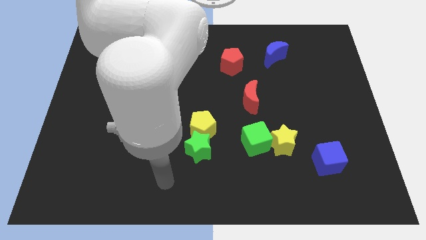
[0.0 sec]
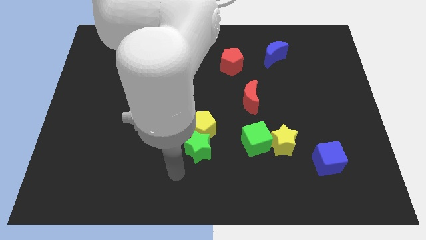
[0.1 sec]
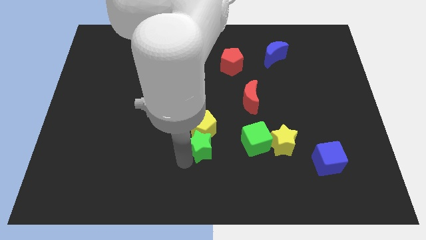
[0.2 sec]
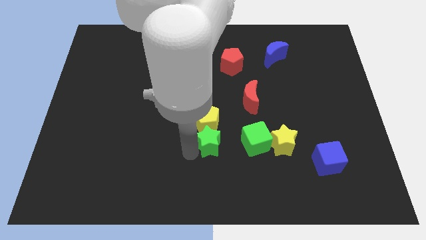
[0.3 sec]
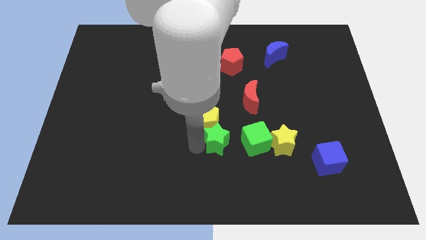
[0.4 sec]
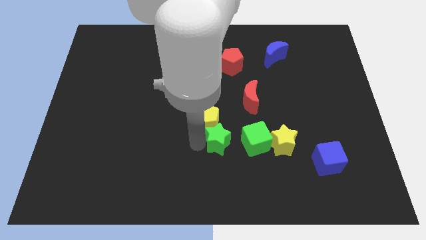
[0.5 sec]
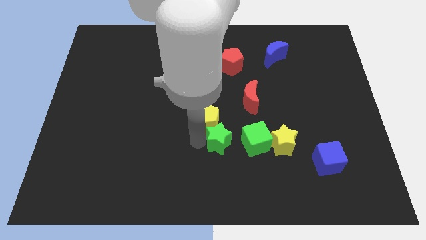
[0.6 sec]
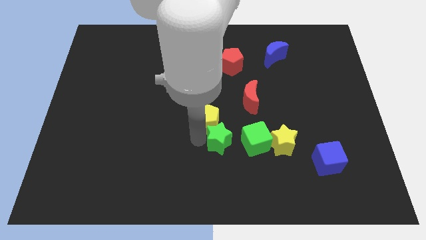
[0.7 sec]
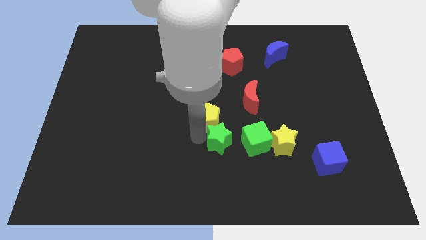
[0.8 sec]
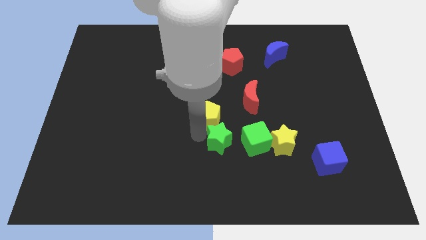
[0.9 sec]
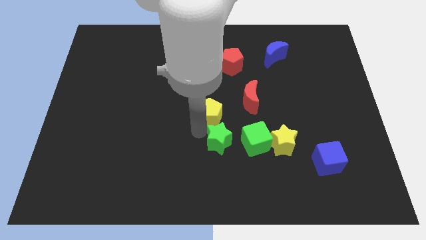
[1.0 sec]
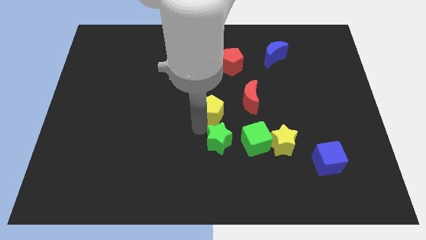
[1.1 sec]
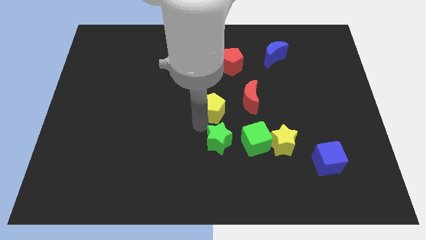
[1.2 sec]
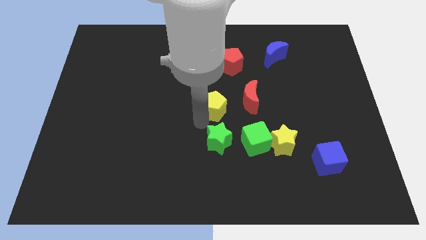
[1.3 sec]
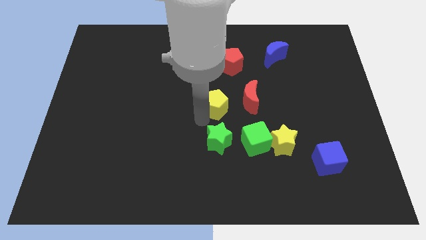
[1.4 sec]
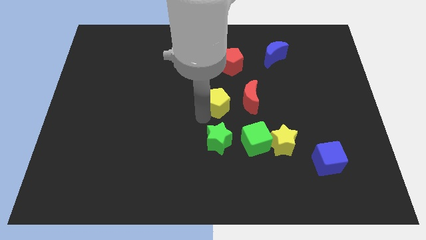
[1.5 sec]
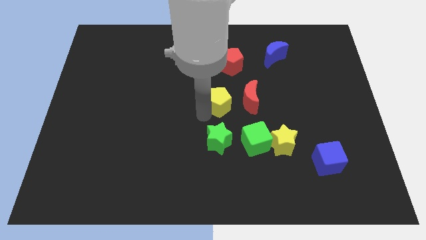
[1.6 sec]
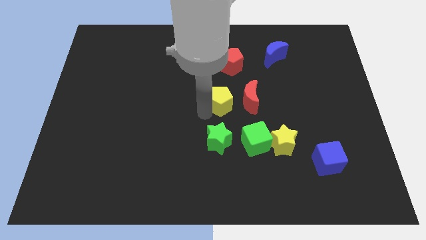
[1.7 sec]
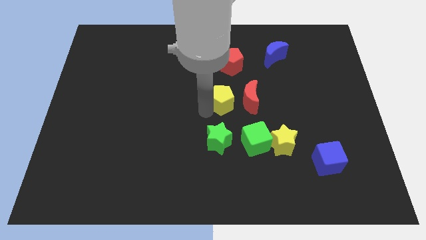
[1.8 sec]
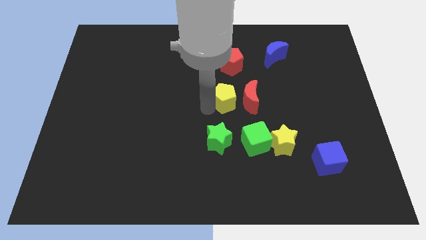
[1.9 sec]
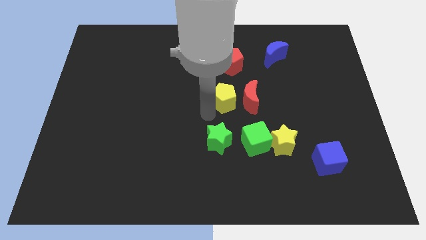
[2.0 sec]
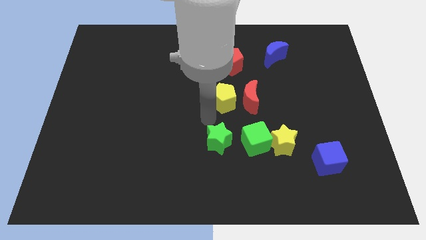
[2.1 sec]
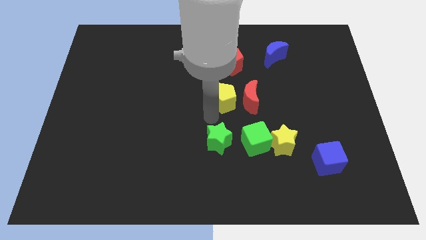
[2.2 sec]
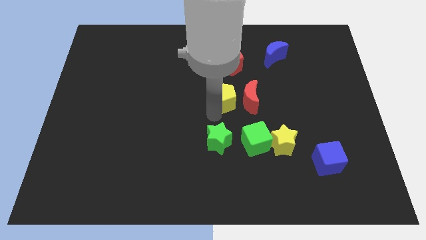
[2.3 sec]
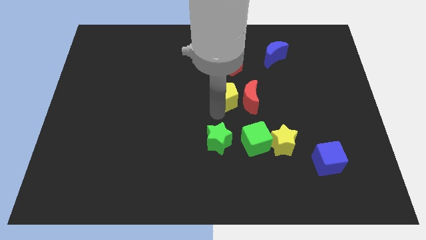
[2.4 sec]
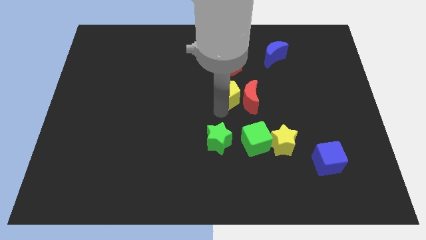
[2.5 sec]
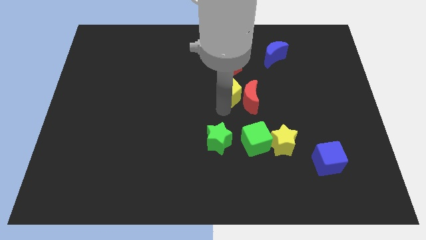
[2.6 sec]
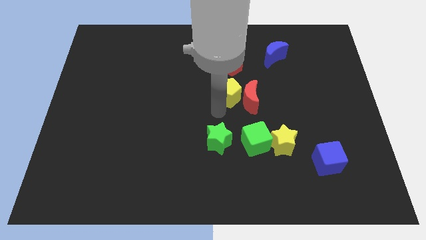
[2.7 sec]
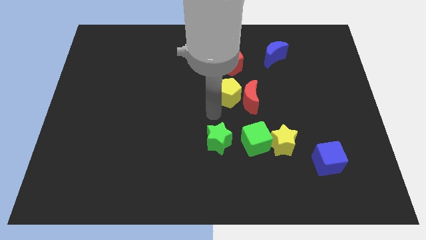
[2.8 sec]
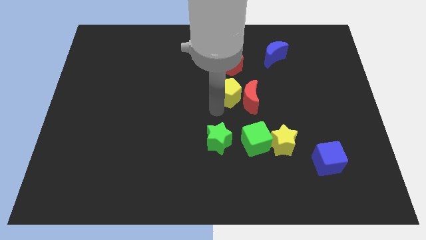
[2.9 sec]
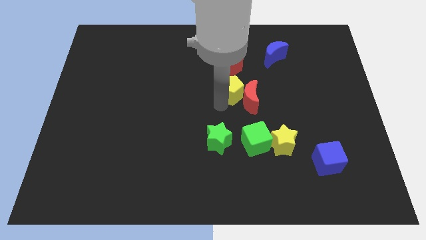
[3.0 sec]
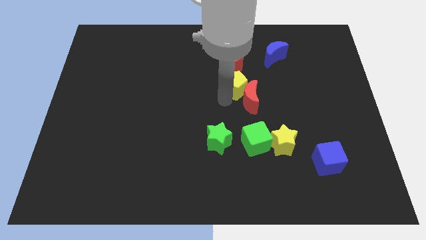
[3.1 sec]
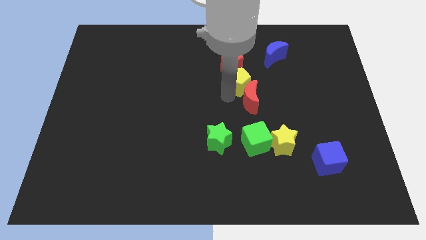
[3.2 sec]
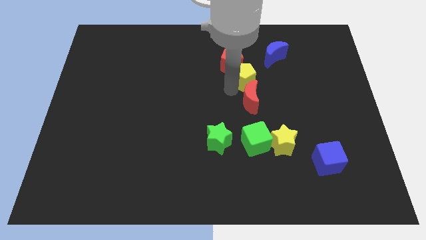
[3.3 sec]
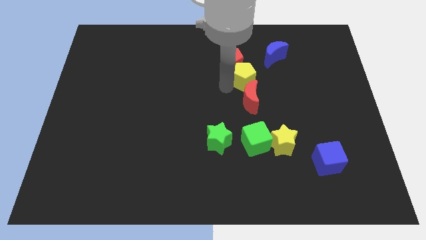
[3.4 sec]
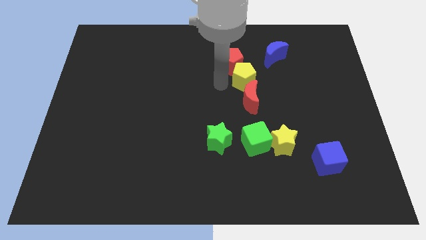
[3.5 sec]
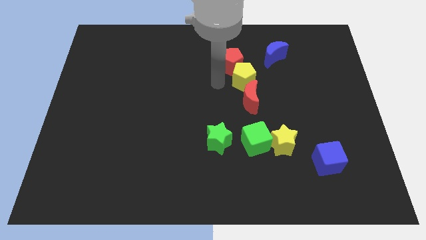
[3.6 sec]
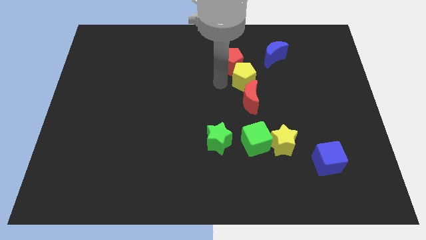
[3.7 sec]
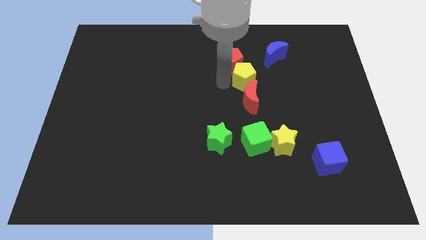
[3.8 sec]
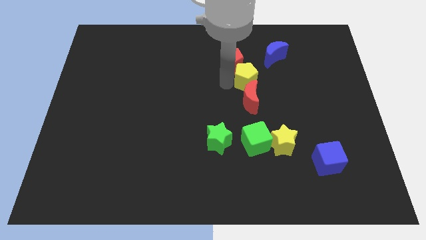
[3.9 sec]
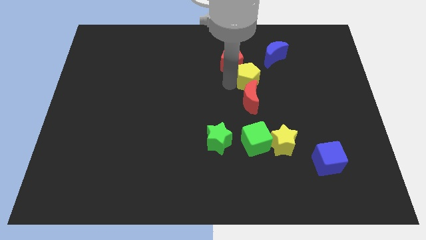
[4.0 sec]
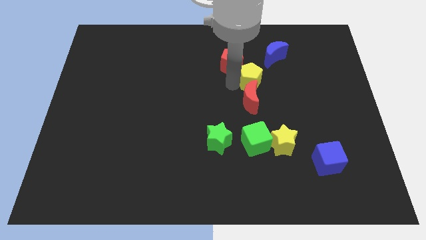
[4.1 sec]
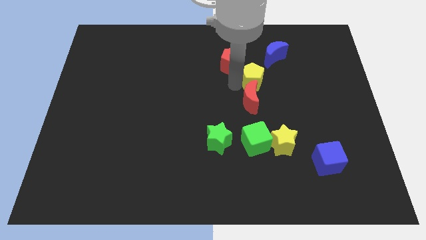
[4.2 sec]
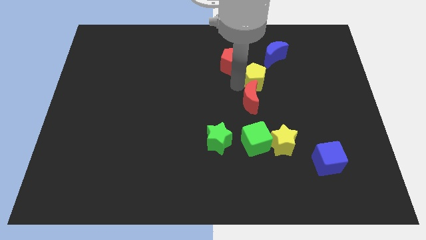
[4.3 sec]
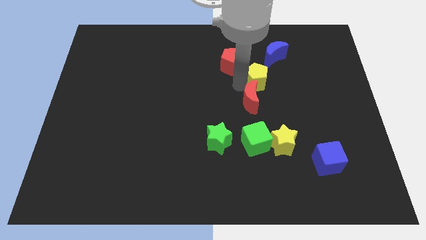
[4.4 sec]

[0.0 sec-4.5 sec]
push the yellow pentagon up and to the right diagonally

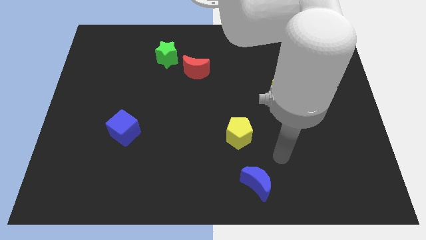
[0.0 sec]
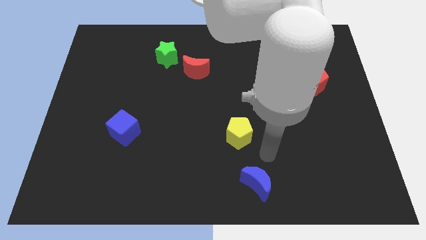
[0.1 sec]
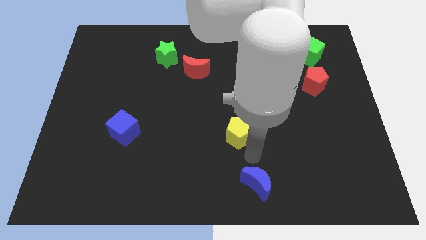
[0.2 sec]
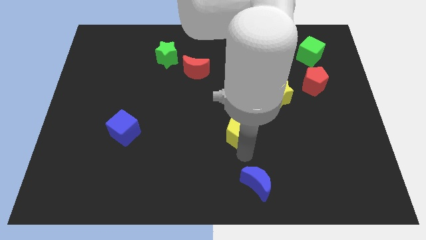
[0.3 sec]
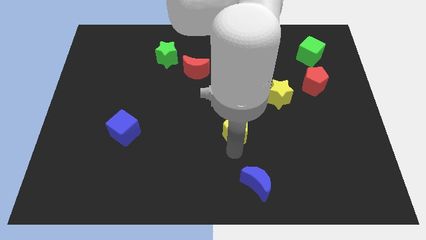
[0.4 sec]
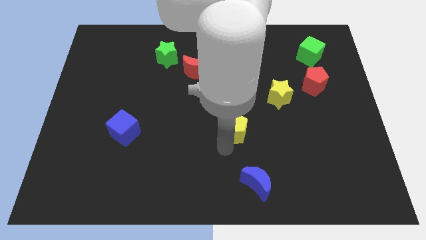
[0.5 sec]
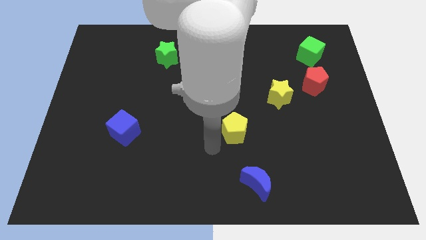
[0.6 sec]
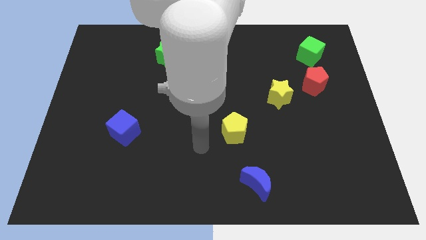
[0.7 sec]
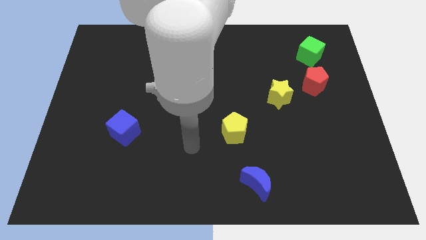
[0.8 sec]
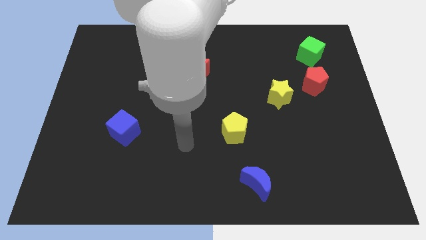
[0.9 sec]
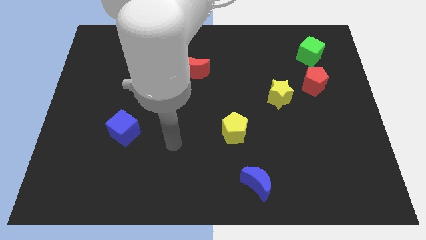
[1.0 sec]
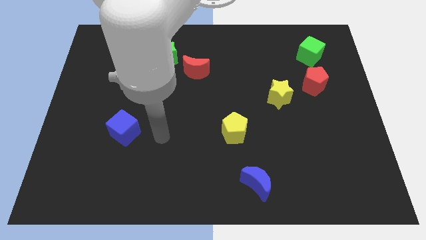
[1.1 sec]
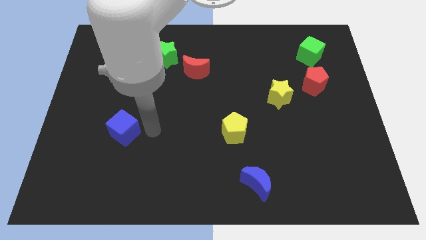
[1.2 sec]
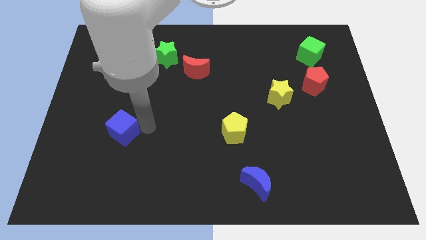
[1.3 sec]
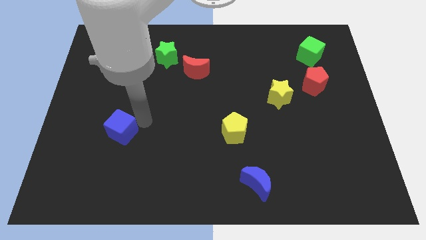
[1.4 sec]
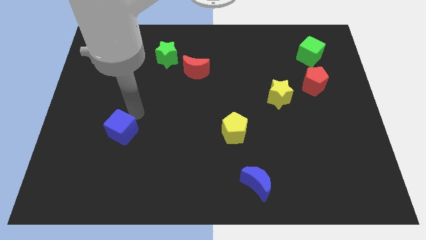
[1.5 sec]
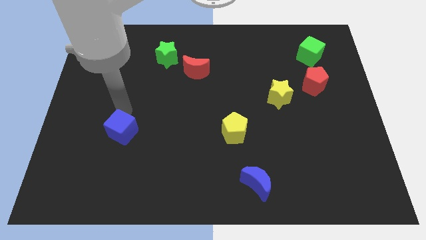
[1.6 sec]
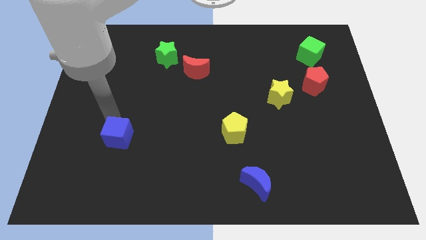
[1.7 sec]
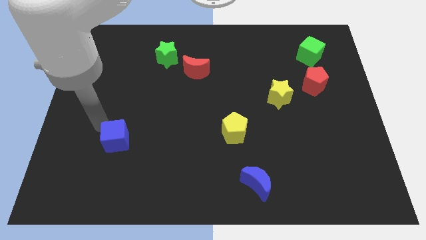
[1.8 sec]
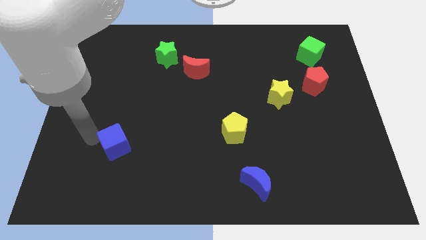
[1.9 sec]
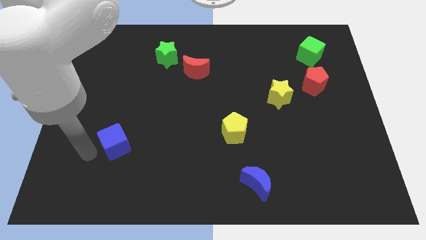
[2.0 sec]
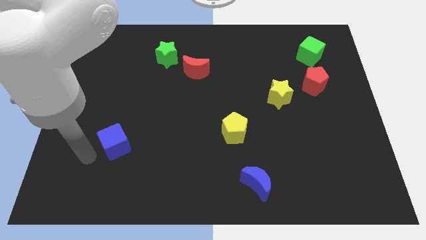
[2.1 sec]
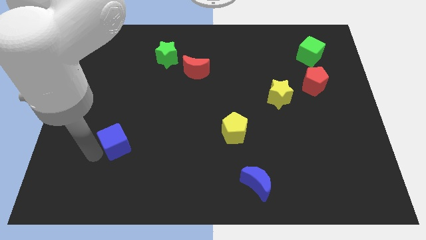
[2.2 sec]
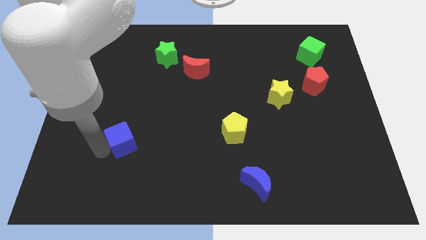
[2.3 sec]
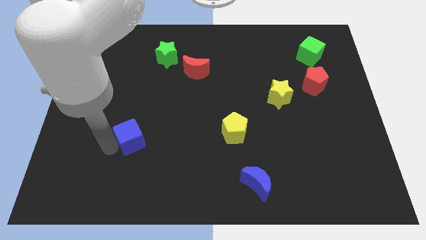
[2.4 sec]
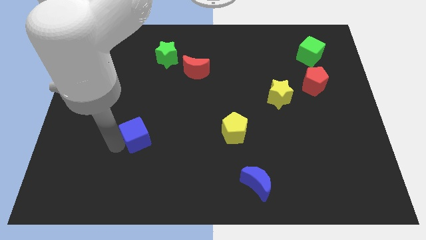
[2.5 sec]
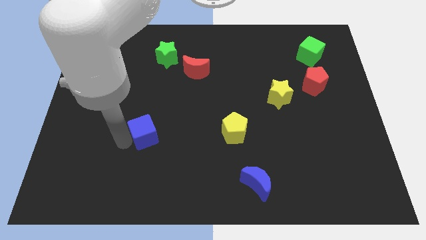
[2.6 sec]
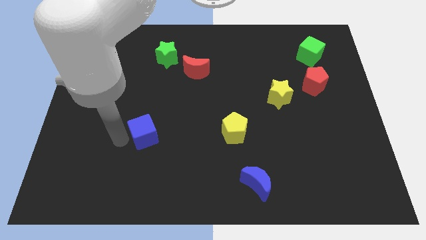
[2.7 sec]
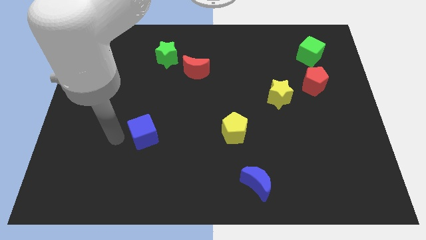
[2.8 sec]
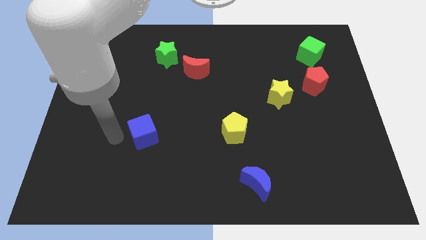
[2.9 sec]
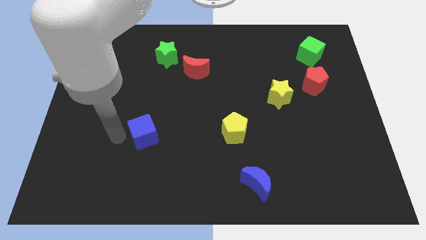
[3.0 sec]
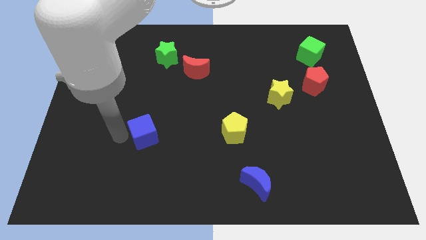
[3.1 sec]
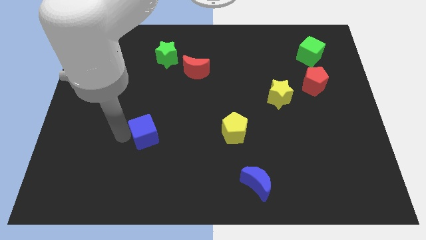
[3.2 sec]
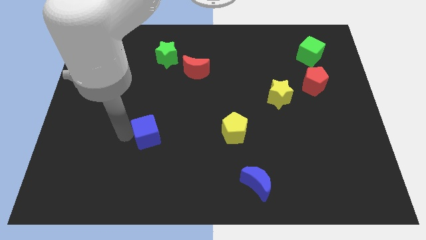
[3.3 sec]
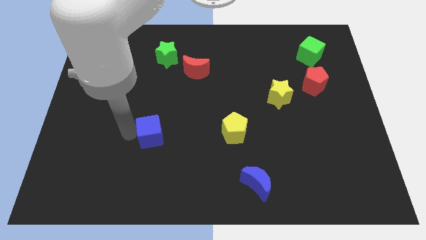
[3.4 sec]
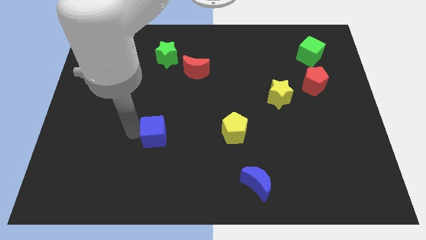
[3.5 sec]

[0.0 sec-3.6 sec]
move the blue cube a little bit right

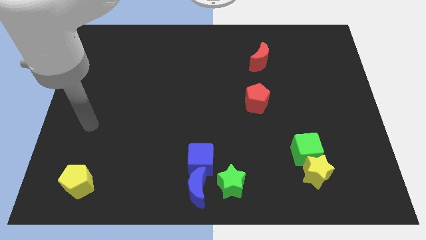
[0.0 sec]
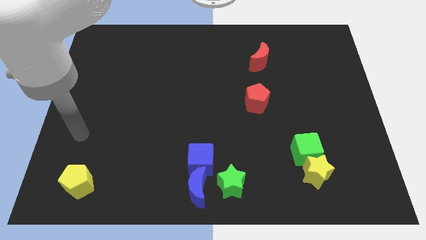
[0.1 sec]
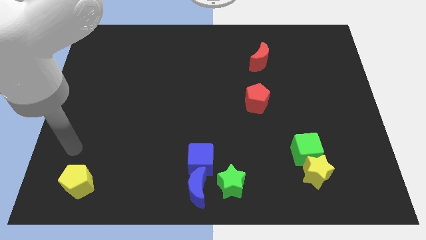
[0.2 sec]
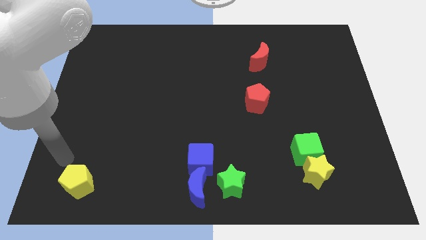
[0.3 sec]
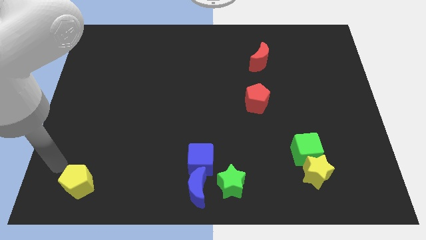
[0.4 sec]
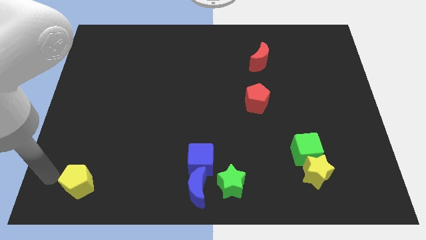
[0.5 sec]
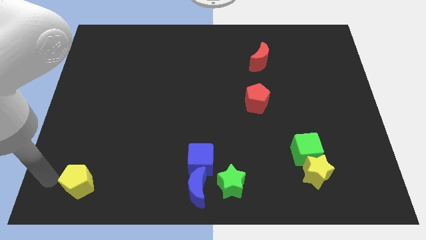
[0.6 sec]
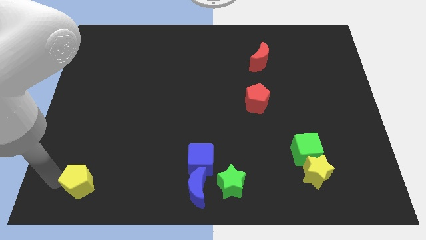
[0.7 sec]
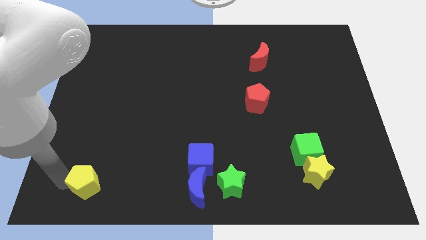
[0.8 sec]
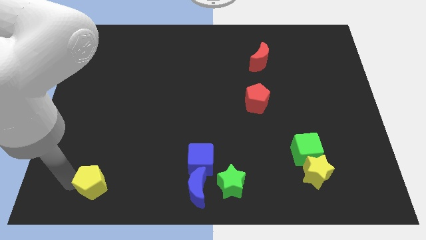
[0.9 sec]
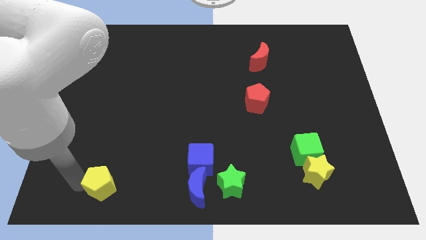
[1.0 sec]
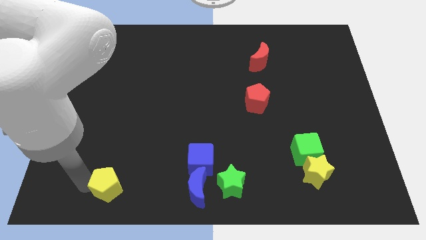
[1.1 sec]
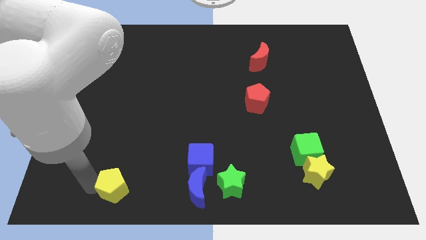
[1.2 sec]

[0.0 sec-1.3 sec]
slightly push the yellow pentagon to the right
